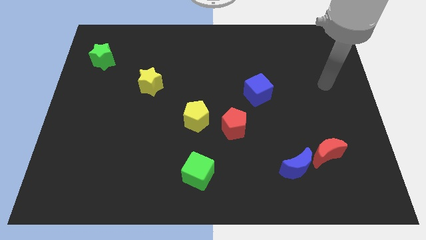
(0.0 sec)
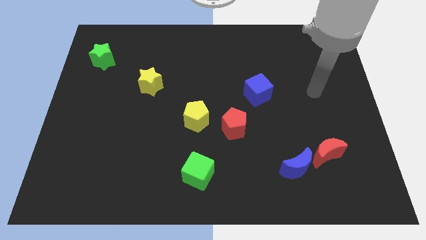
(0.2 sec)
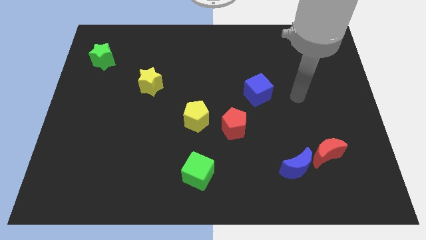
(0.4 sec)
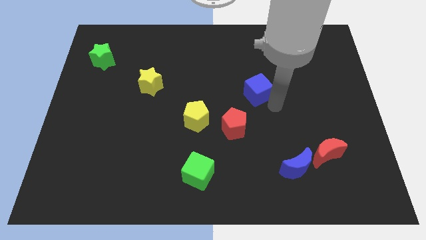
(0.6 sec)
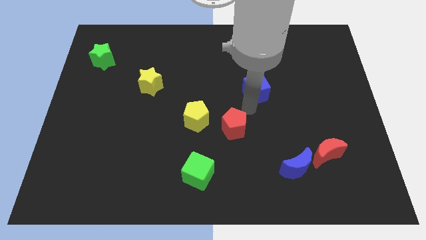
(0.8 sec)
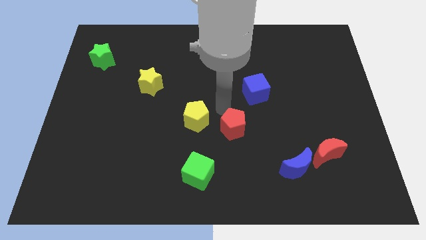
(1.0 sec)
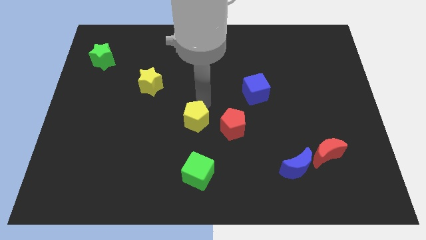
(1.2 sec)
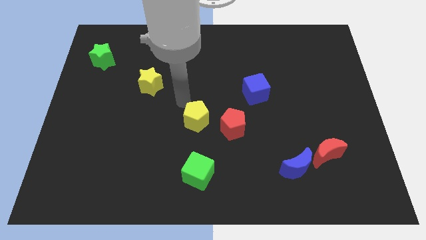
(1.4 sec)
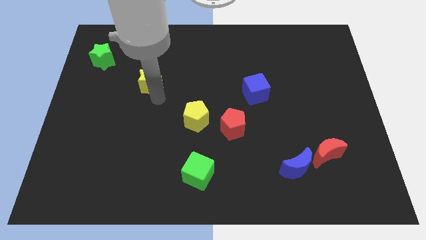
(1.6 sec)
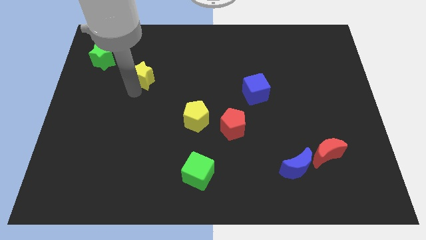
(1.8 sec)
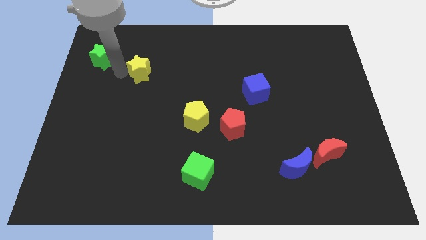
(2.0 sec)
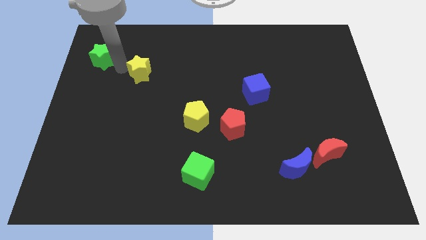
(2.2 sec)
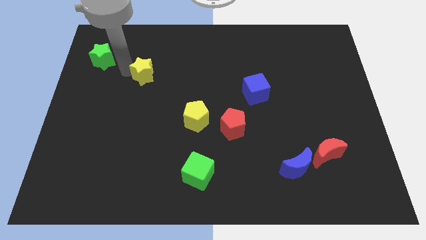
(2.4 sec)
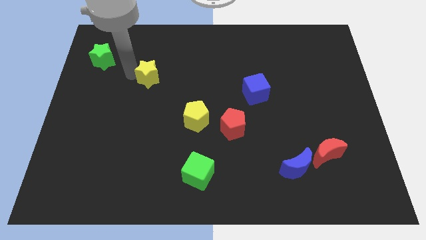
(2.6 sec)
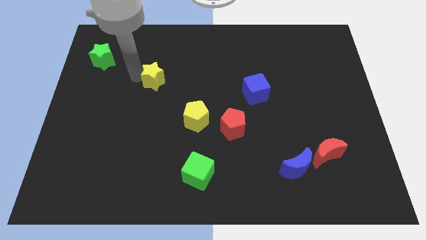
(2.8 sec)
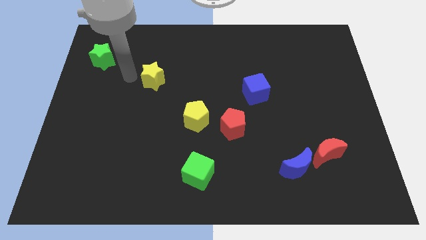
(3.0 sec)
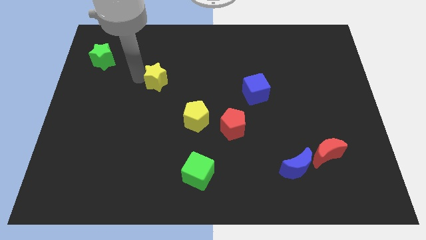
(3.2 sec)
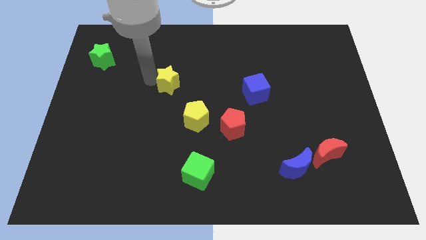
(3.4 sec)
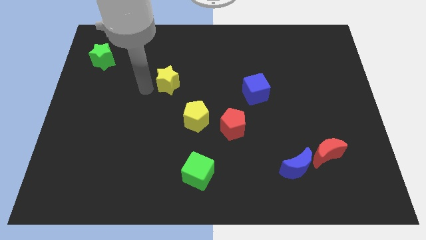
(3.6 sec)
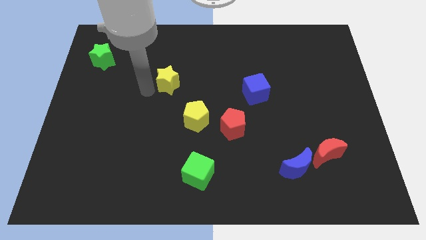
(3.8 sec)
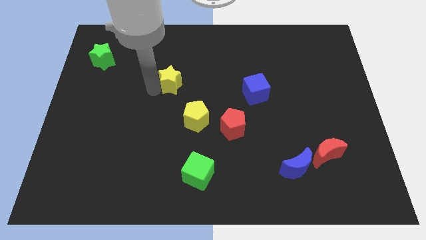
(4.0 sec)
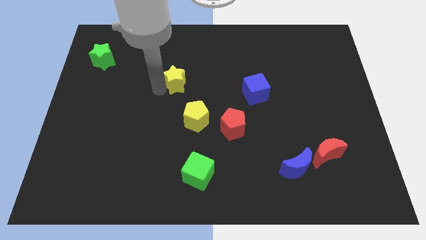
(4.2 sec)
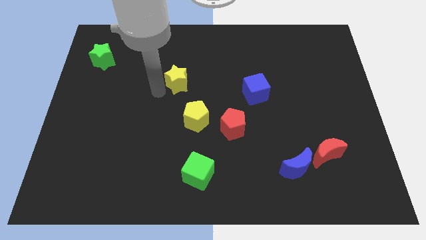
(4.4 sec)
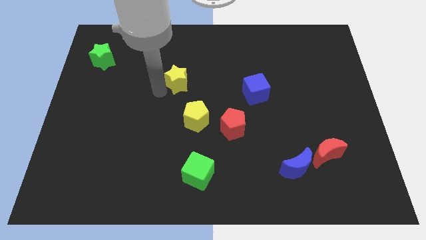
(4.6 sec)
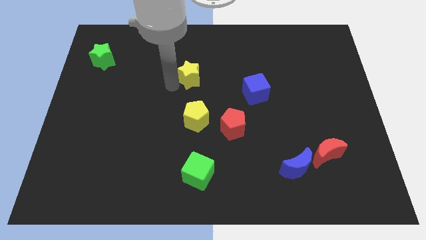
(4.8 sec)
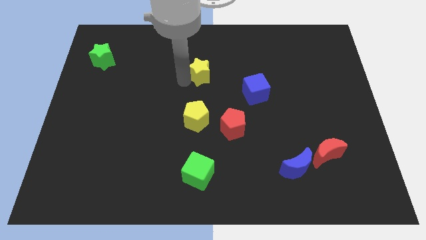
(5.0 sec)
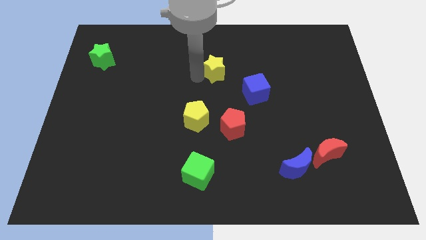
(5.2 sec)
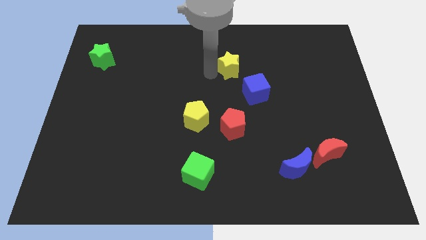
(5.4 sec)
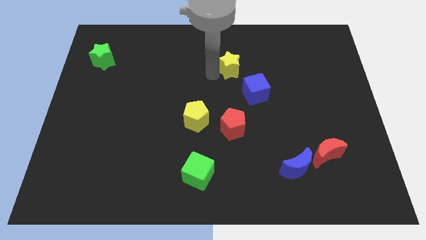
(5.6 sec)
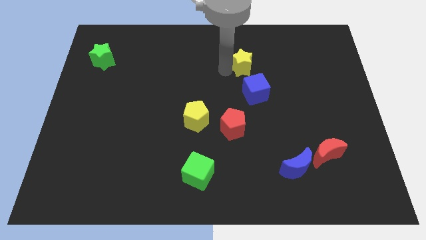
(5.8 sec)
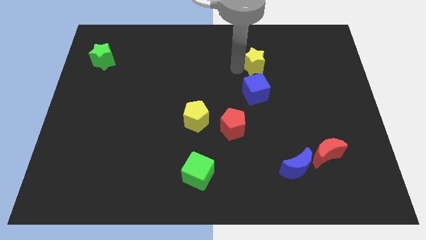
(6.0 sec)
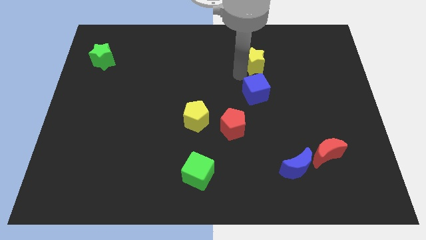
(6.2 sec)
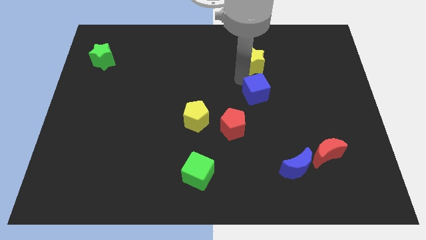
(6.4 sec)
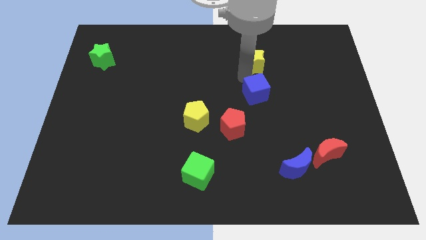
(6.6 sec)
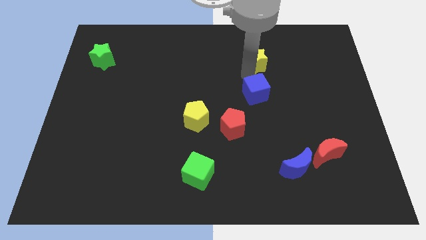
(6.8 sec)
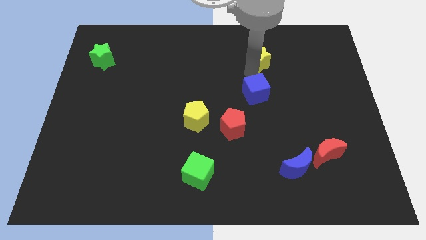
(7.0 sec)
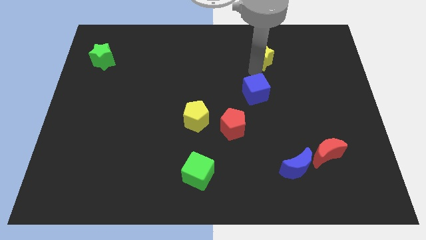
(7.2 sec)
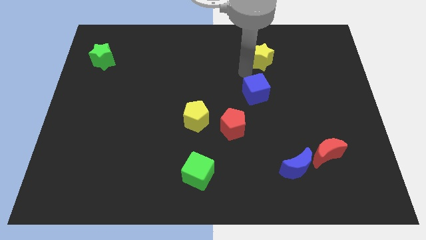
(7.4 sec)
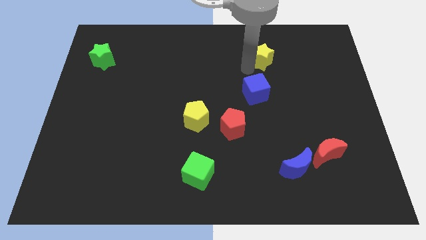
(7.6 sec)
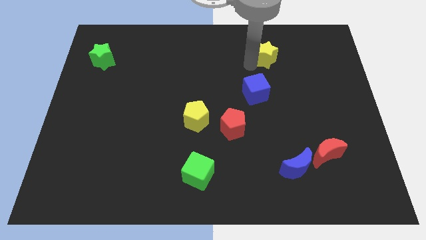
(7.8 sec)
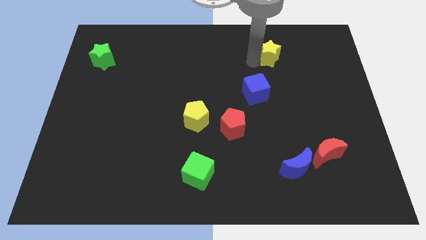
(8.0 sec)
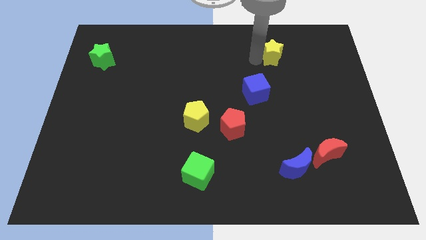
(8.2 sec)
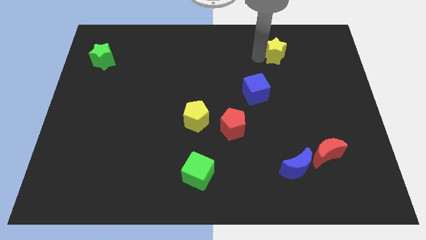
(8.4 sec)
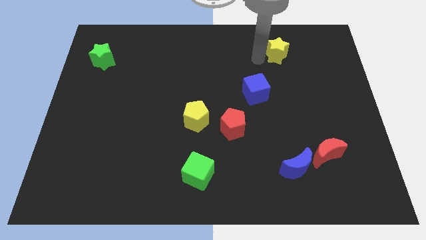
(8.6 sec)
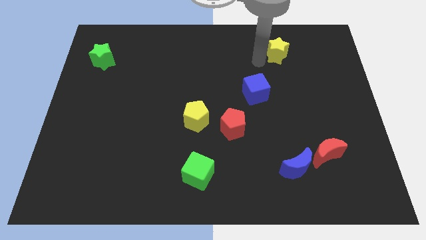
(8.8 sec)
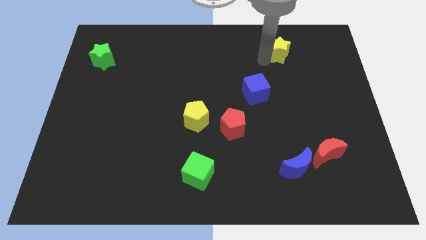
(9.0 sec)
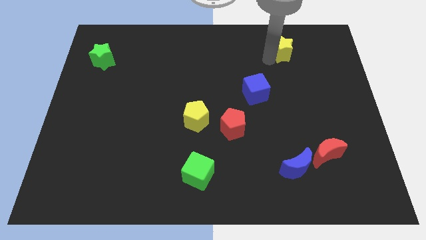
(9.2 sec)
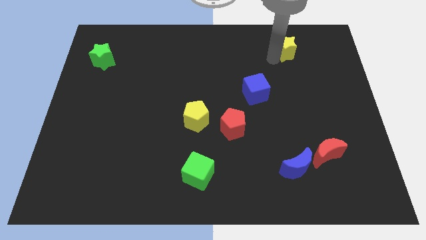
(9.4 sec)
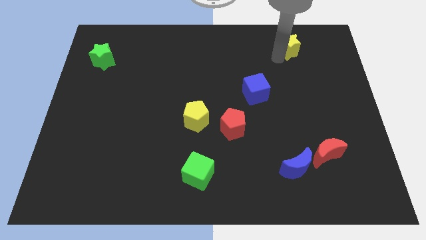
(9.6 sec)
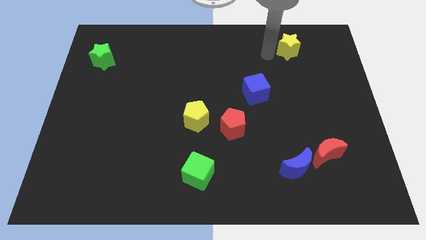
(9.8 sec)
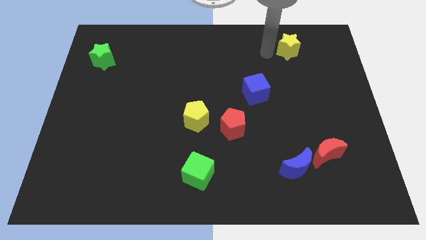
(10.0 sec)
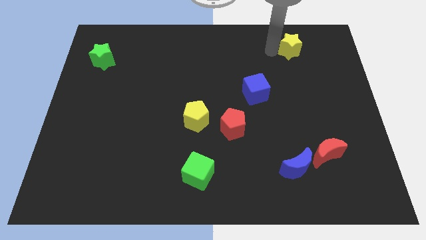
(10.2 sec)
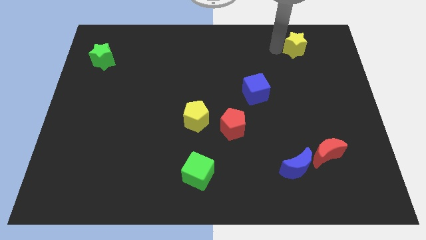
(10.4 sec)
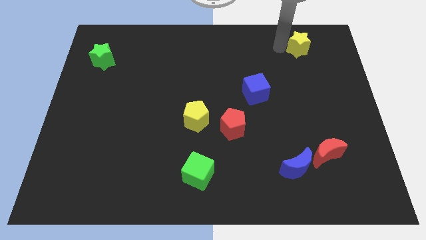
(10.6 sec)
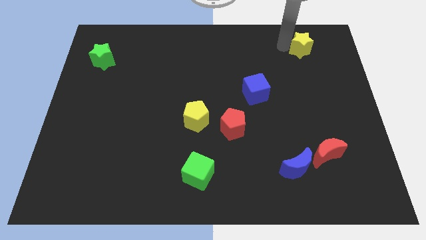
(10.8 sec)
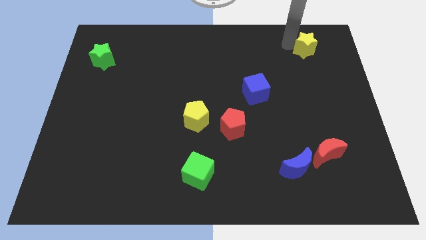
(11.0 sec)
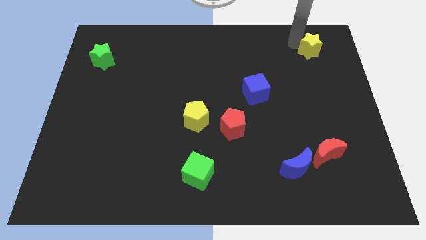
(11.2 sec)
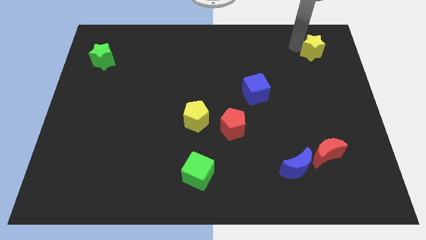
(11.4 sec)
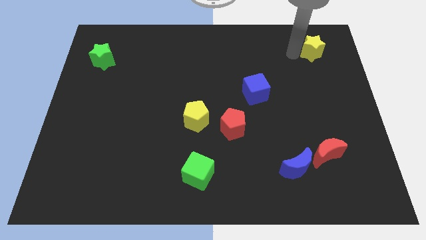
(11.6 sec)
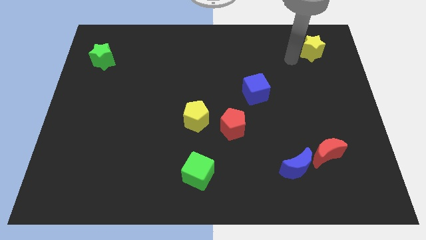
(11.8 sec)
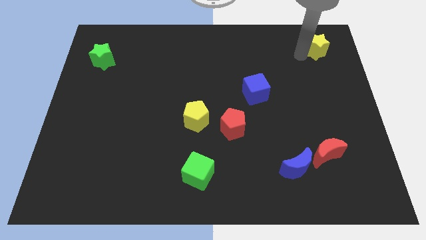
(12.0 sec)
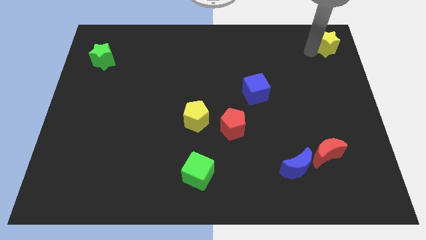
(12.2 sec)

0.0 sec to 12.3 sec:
push the yellow star to the top right of the board
